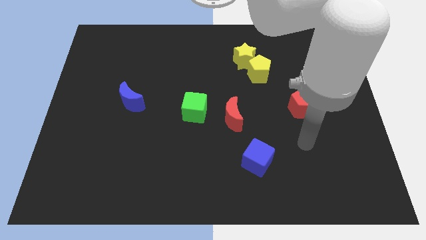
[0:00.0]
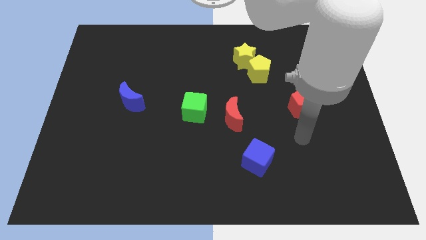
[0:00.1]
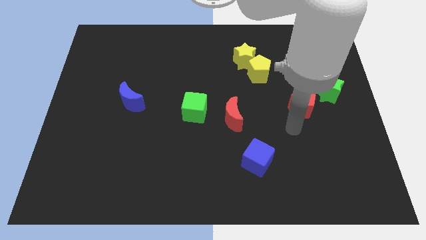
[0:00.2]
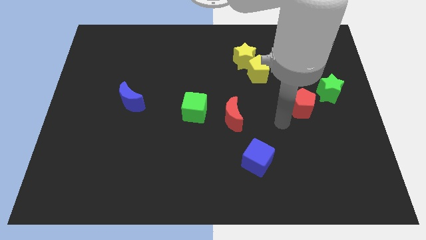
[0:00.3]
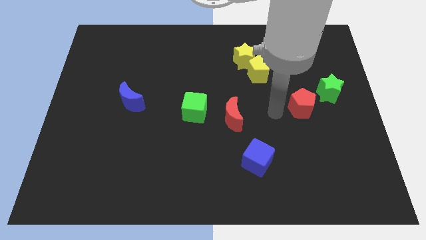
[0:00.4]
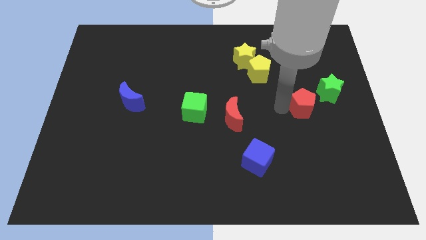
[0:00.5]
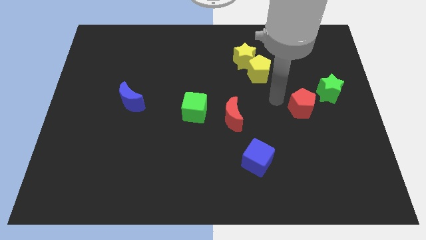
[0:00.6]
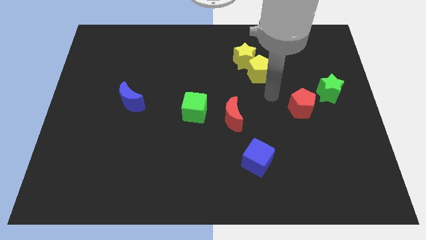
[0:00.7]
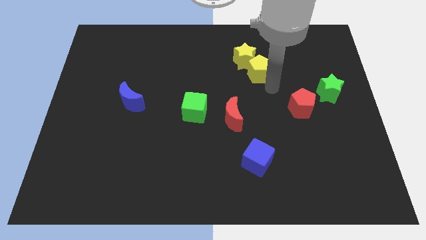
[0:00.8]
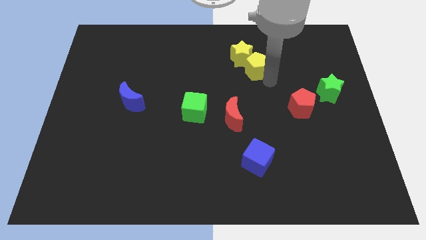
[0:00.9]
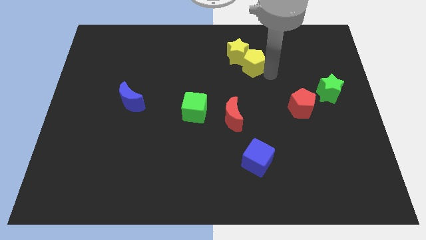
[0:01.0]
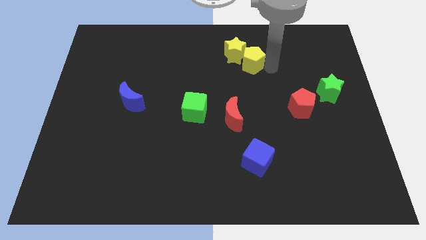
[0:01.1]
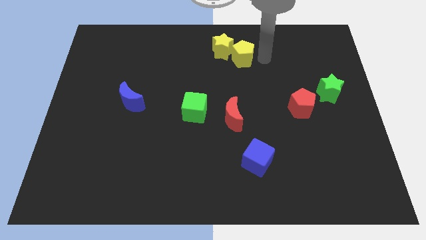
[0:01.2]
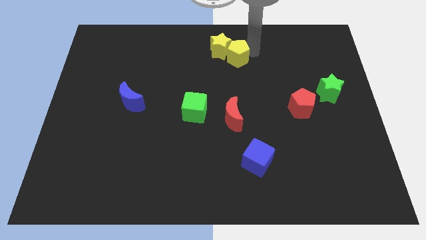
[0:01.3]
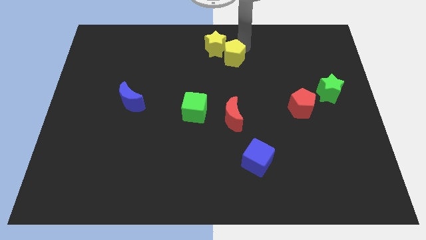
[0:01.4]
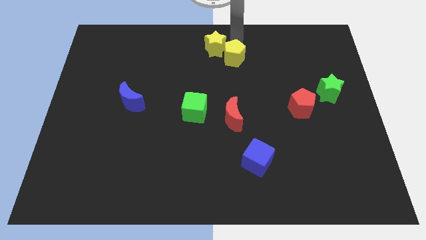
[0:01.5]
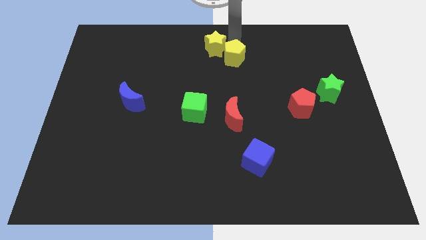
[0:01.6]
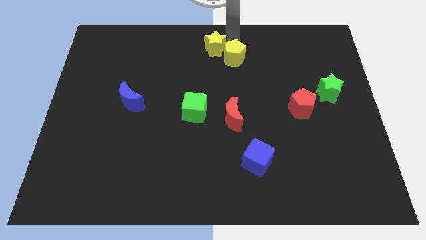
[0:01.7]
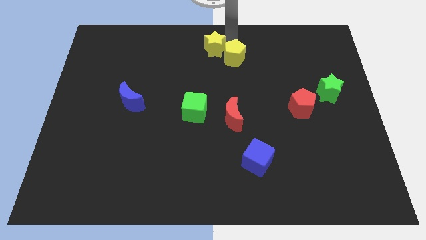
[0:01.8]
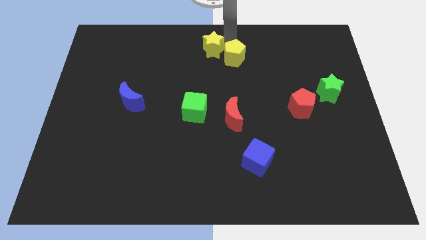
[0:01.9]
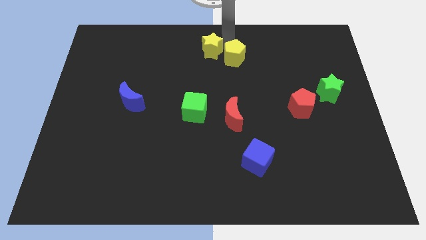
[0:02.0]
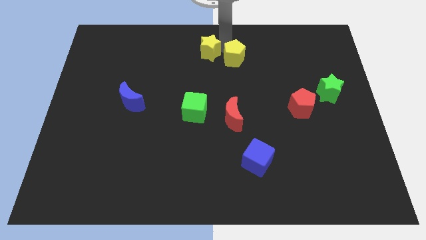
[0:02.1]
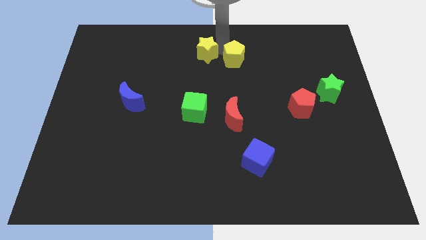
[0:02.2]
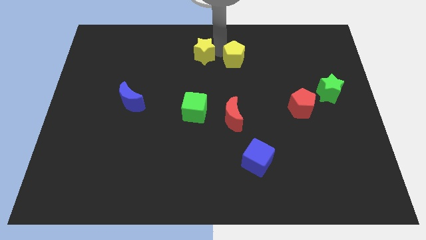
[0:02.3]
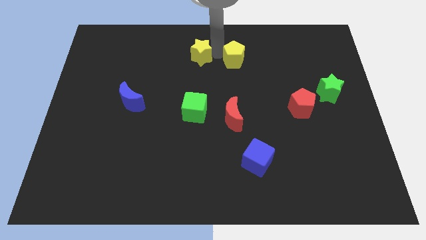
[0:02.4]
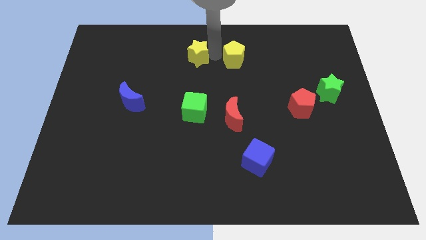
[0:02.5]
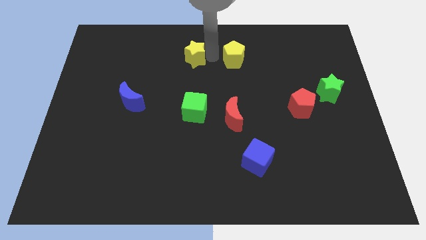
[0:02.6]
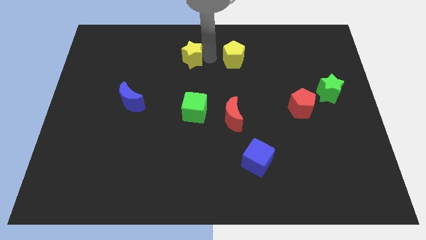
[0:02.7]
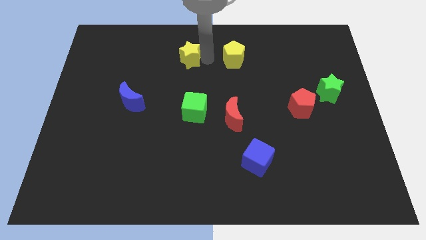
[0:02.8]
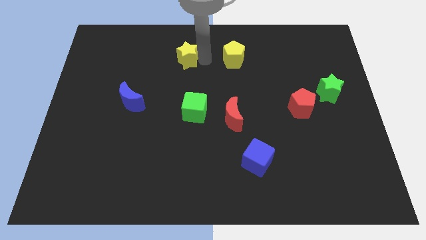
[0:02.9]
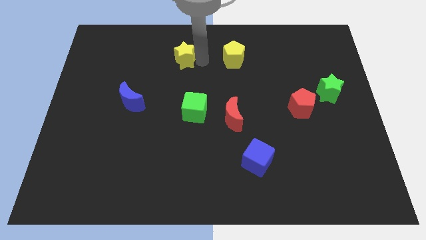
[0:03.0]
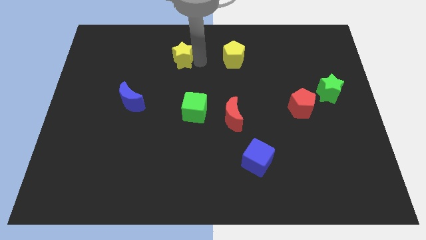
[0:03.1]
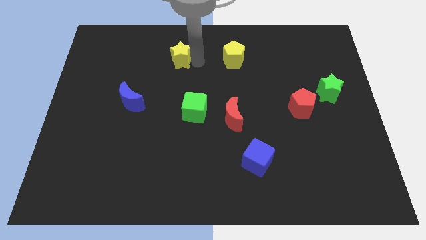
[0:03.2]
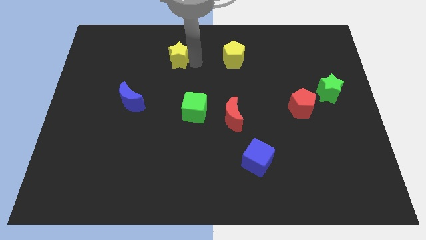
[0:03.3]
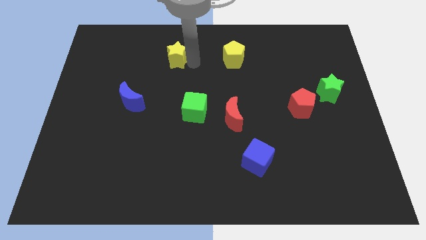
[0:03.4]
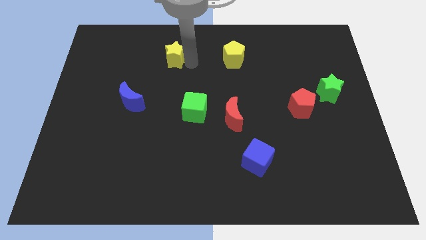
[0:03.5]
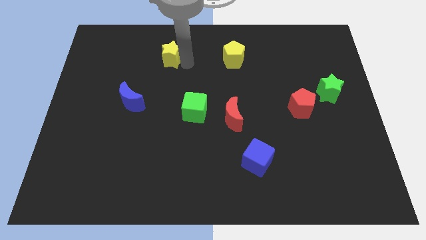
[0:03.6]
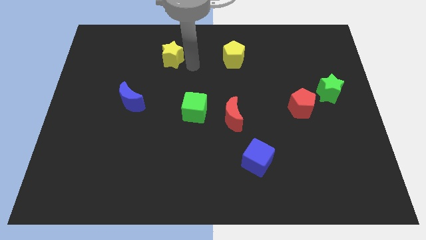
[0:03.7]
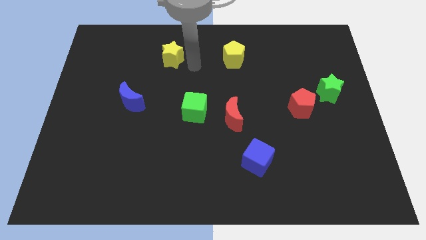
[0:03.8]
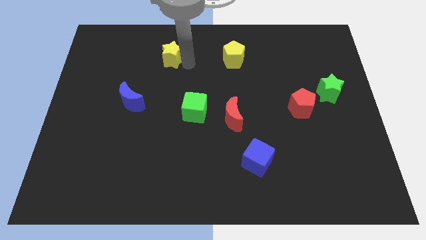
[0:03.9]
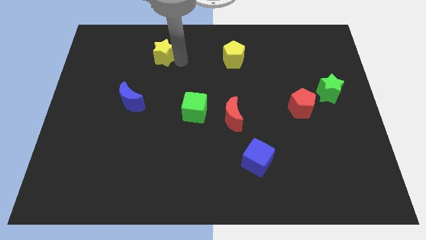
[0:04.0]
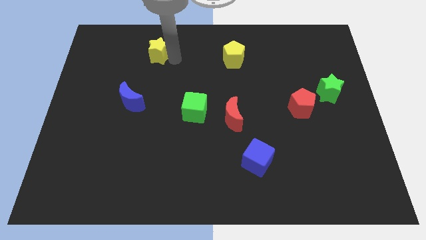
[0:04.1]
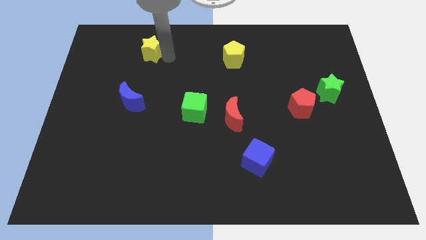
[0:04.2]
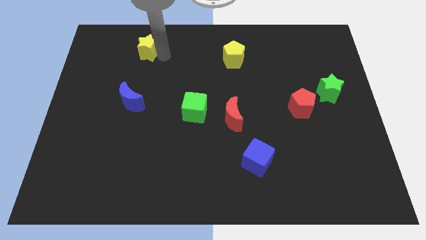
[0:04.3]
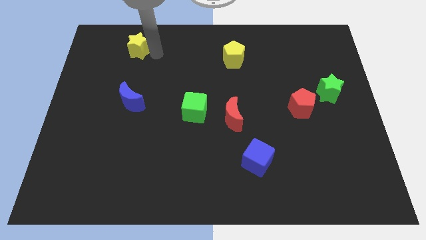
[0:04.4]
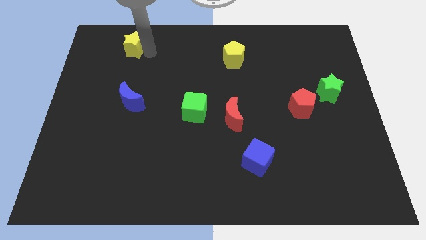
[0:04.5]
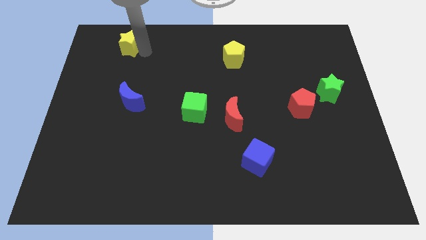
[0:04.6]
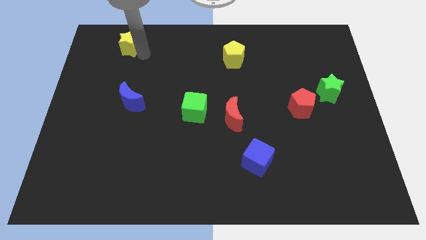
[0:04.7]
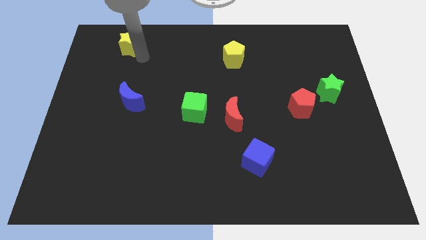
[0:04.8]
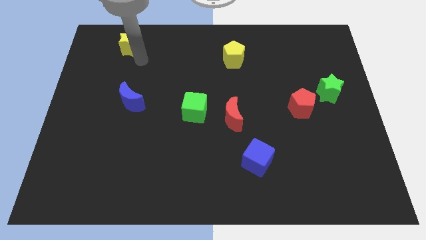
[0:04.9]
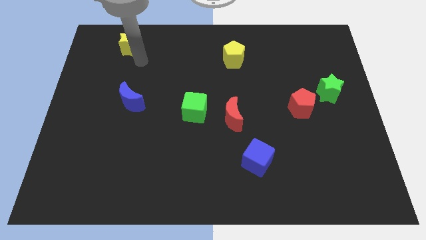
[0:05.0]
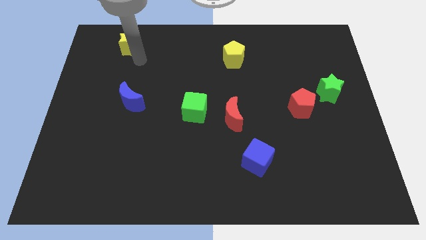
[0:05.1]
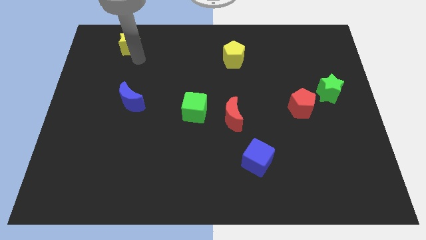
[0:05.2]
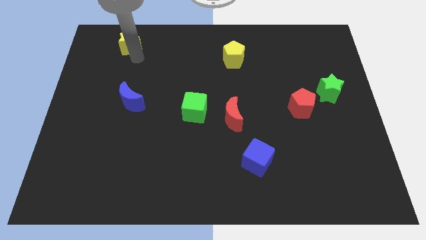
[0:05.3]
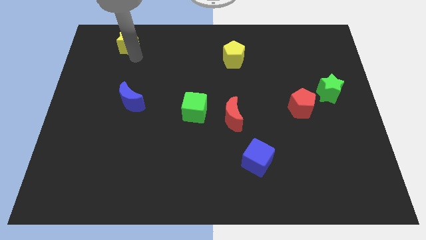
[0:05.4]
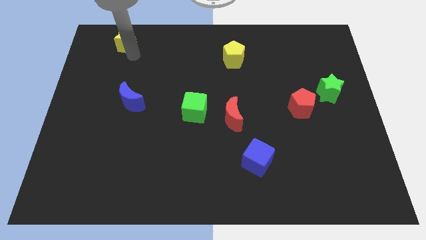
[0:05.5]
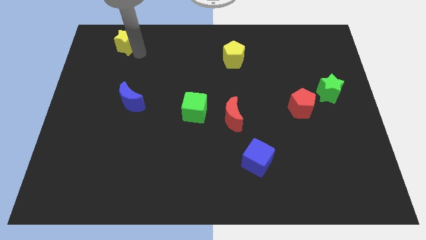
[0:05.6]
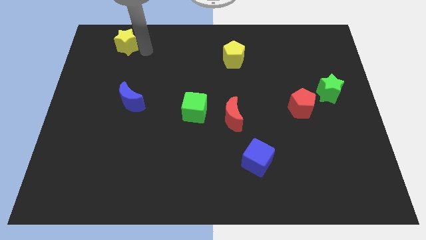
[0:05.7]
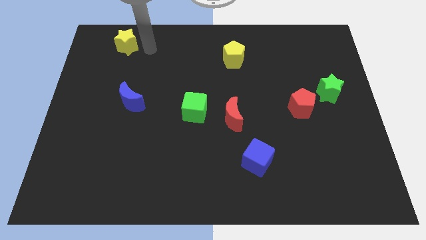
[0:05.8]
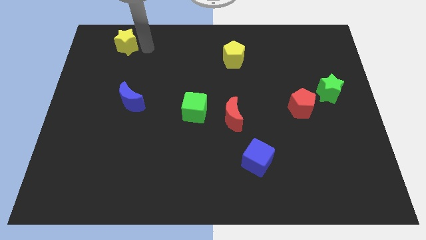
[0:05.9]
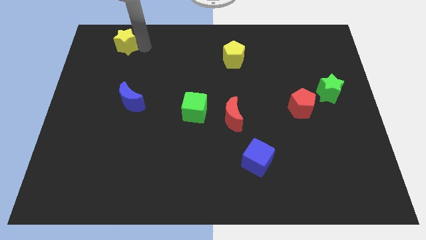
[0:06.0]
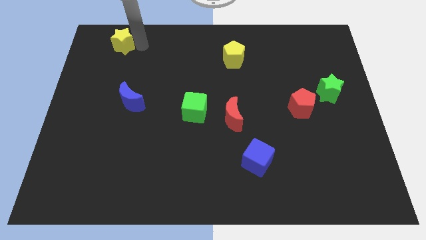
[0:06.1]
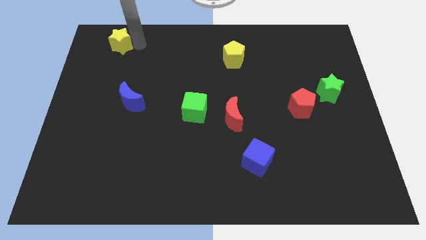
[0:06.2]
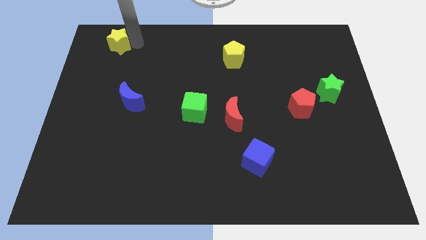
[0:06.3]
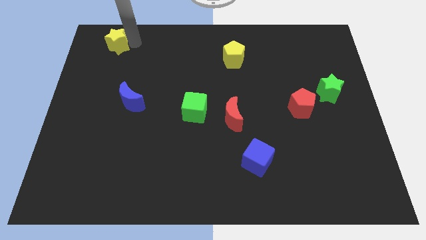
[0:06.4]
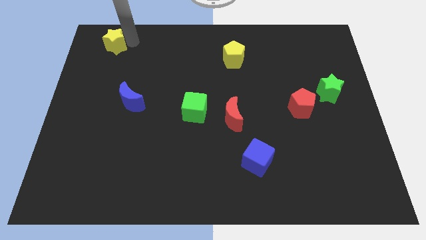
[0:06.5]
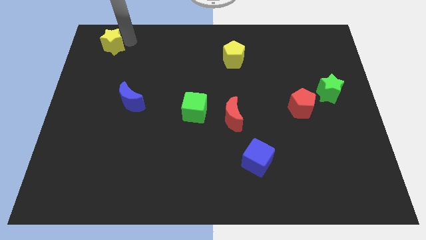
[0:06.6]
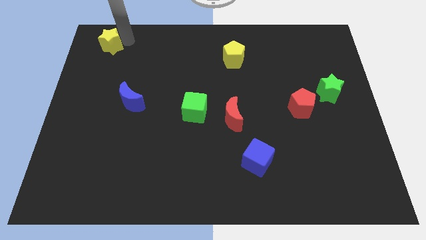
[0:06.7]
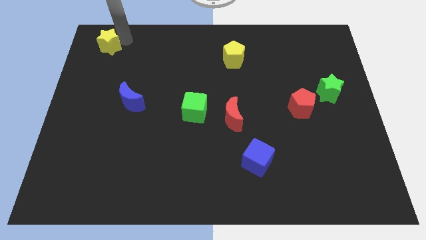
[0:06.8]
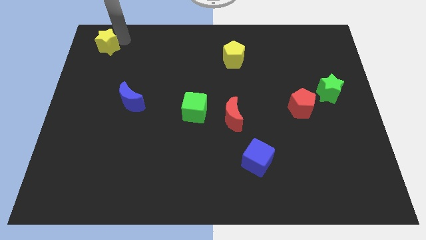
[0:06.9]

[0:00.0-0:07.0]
move the yellow star to the top left of the board
